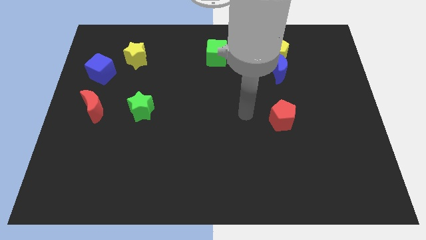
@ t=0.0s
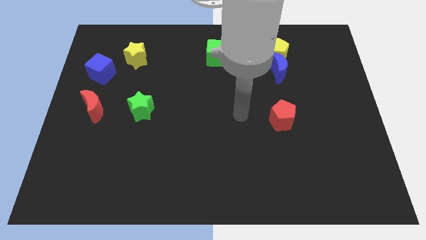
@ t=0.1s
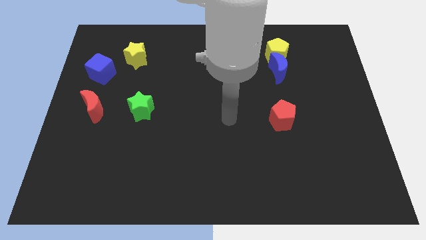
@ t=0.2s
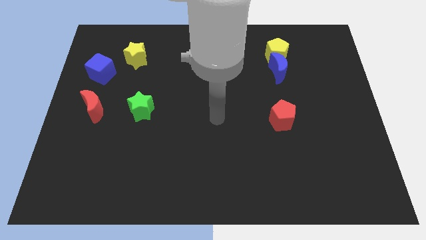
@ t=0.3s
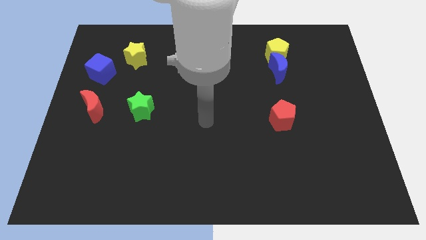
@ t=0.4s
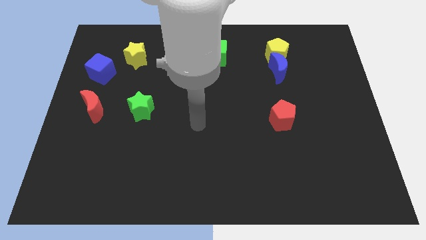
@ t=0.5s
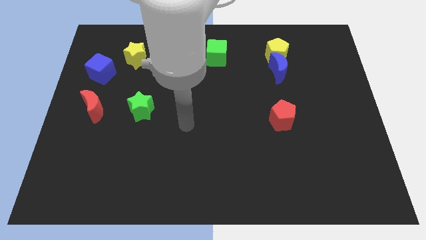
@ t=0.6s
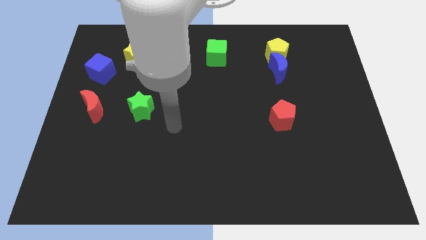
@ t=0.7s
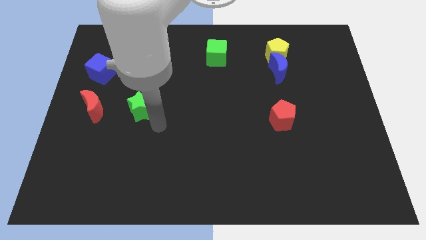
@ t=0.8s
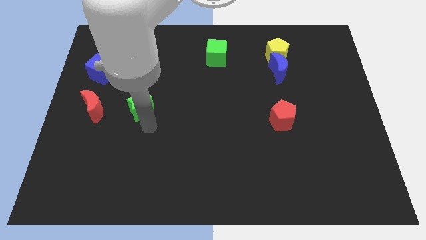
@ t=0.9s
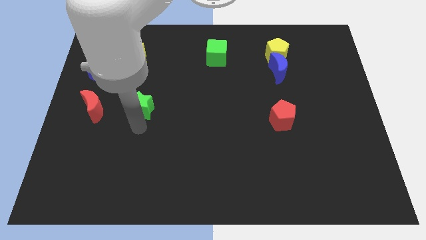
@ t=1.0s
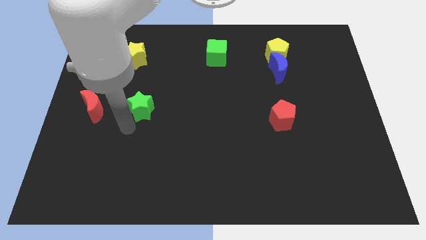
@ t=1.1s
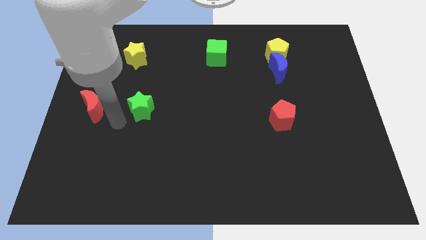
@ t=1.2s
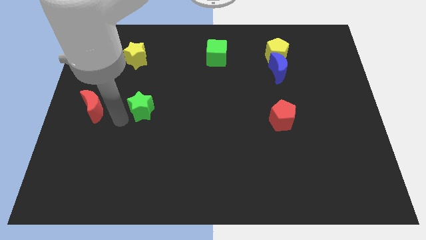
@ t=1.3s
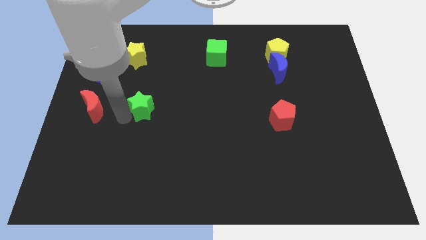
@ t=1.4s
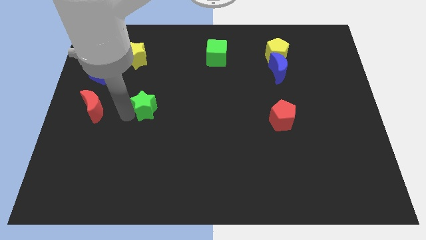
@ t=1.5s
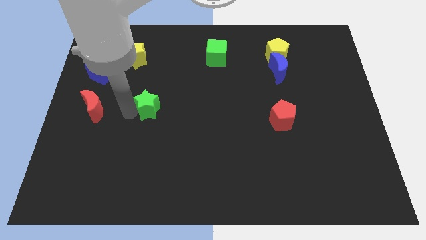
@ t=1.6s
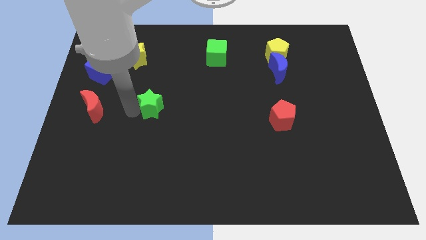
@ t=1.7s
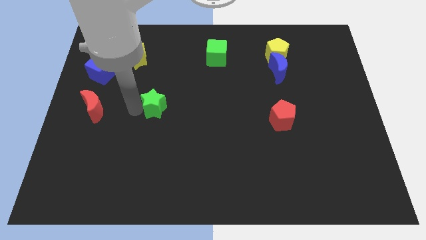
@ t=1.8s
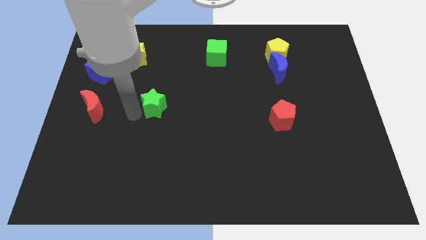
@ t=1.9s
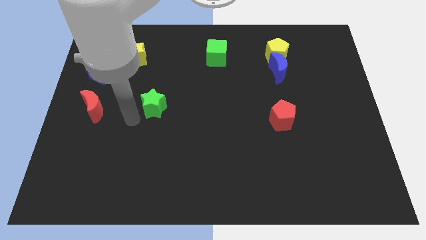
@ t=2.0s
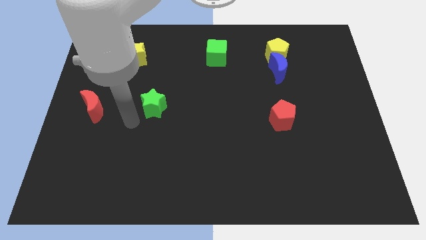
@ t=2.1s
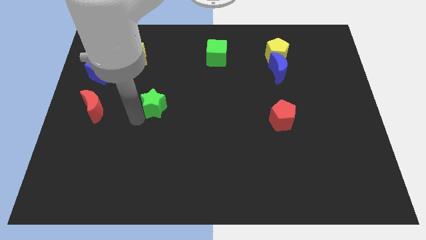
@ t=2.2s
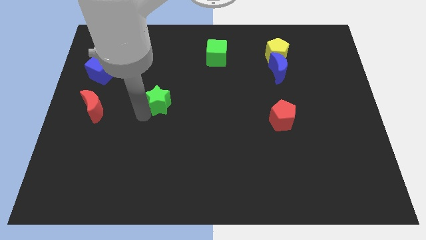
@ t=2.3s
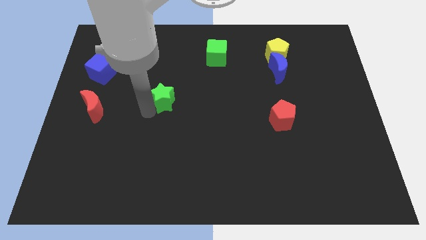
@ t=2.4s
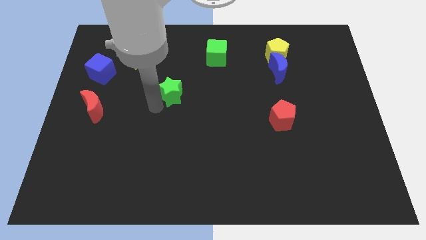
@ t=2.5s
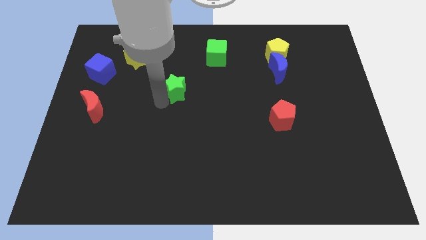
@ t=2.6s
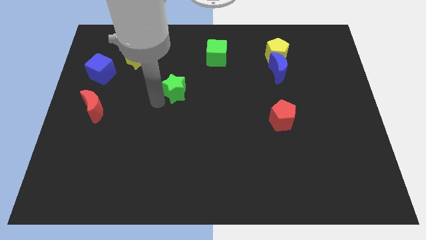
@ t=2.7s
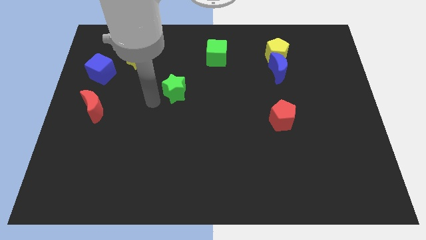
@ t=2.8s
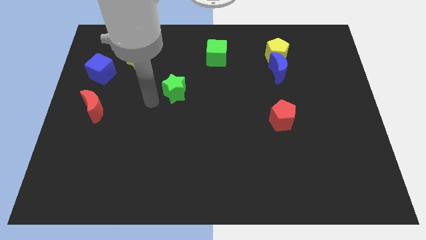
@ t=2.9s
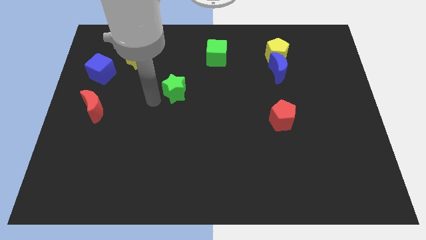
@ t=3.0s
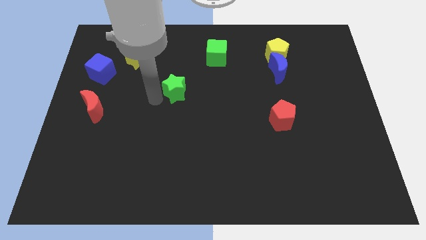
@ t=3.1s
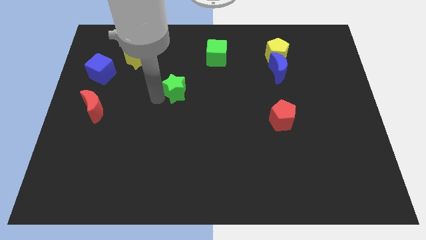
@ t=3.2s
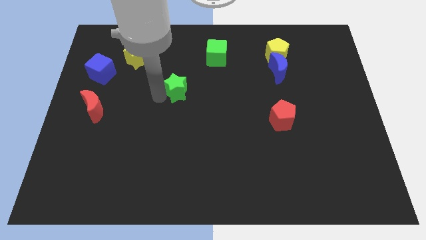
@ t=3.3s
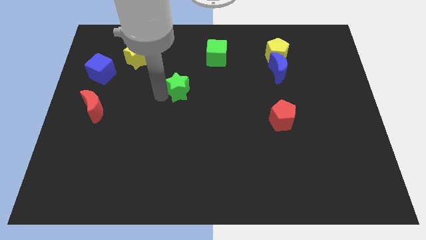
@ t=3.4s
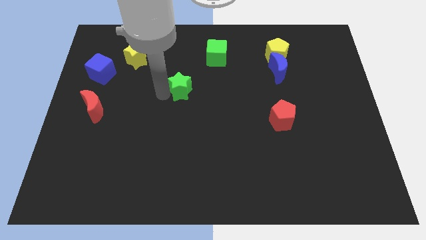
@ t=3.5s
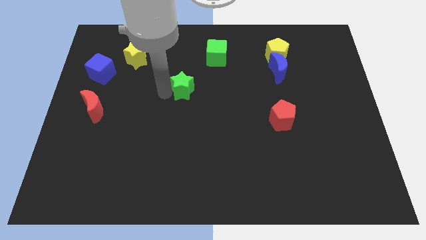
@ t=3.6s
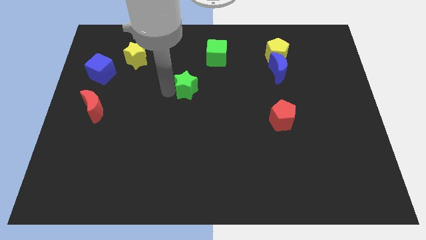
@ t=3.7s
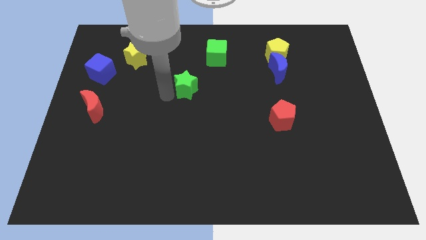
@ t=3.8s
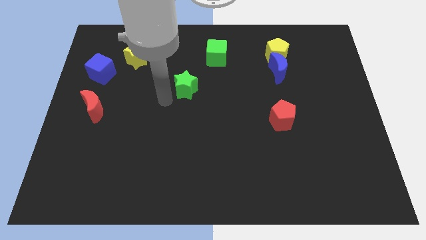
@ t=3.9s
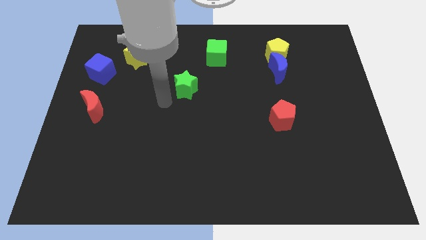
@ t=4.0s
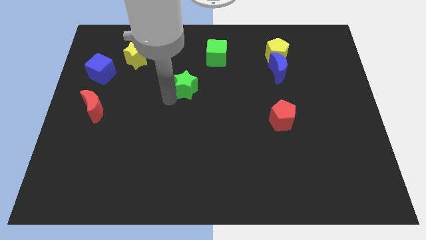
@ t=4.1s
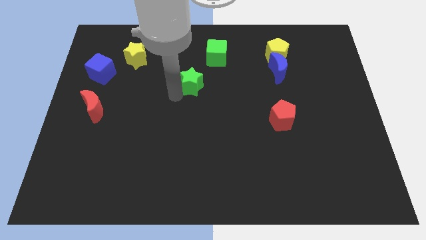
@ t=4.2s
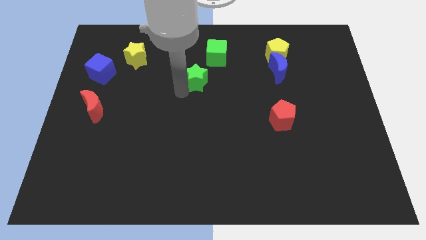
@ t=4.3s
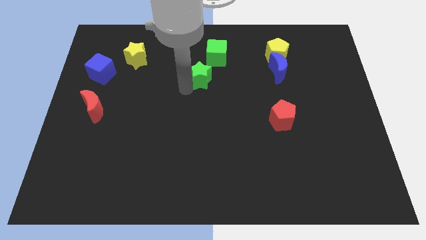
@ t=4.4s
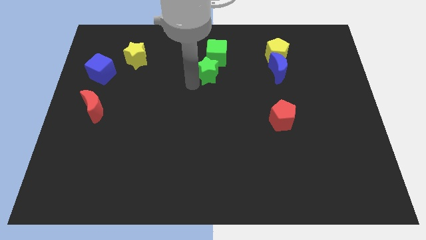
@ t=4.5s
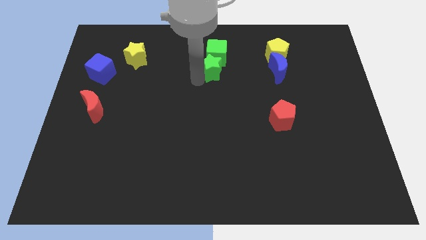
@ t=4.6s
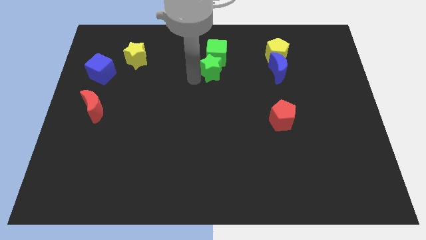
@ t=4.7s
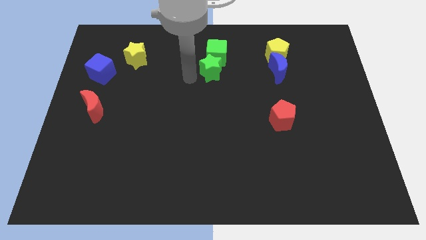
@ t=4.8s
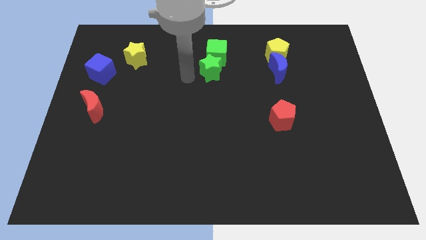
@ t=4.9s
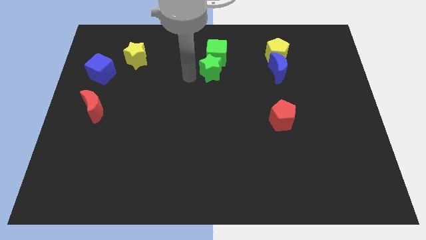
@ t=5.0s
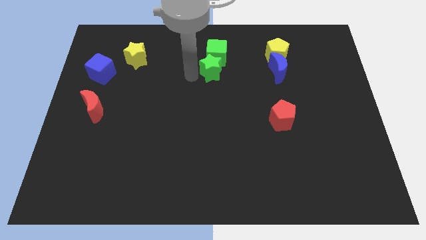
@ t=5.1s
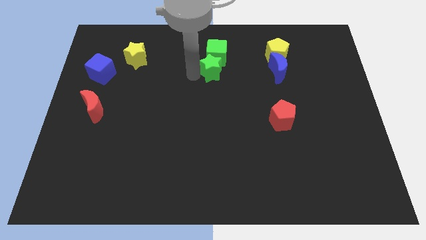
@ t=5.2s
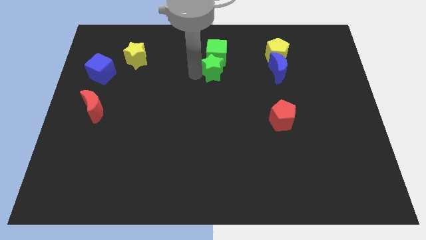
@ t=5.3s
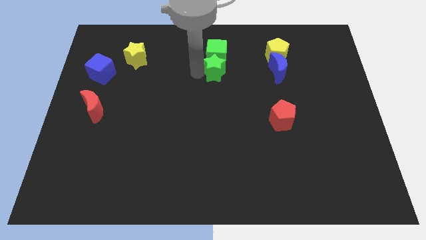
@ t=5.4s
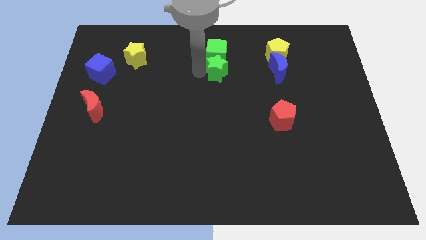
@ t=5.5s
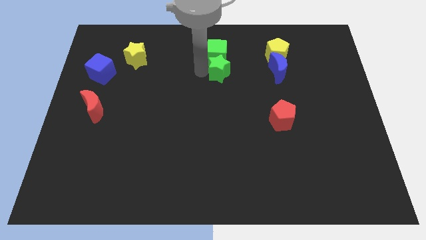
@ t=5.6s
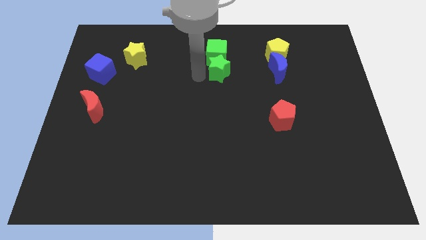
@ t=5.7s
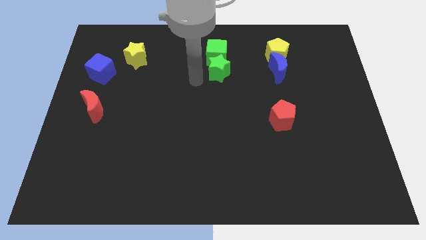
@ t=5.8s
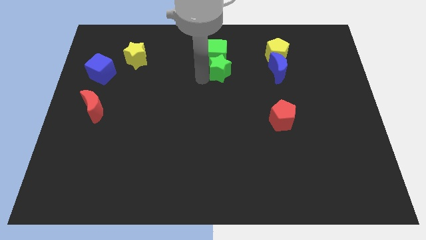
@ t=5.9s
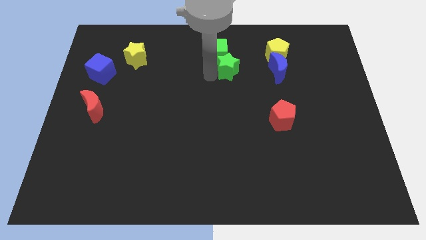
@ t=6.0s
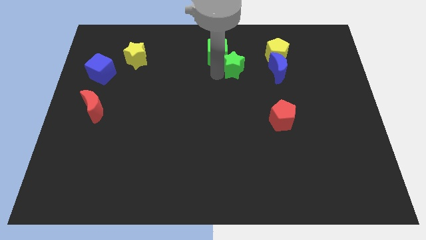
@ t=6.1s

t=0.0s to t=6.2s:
move the green star left of the yellow pentagon
